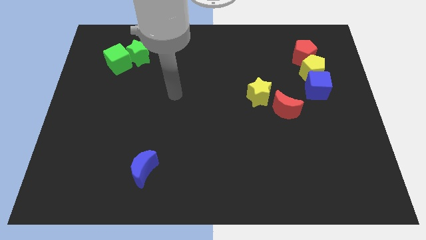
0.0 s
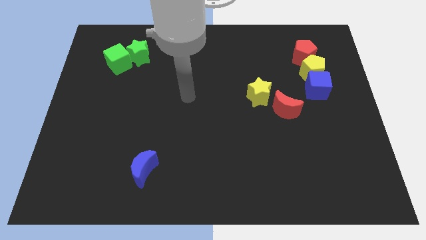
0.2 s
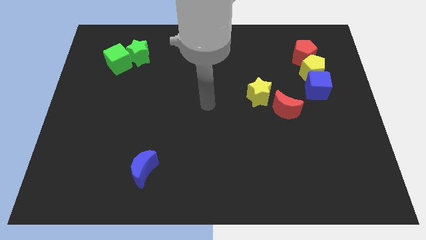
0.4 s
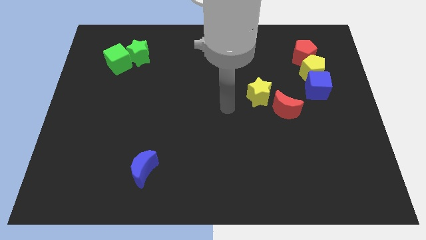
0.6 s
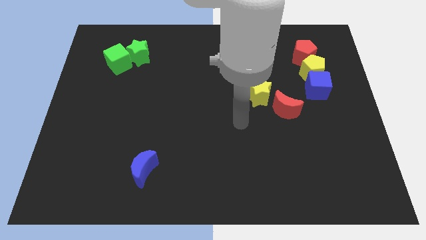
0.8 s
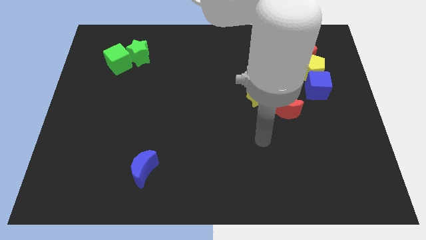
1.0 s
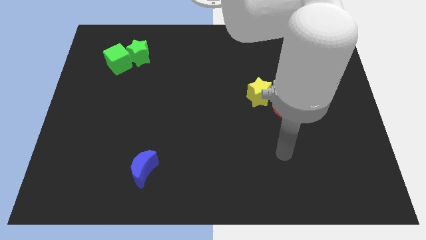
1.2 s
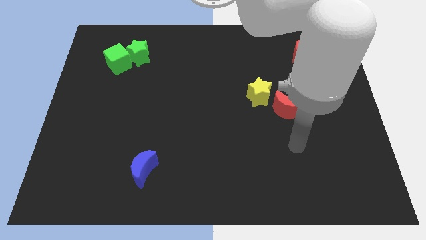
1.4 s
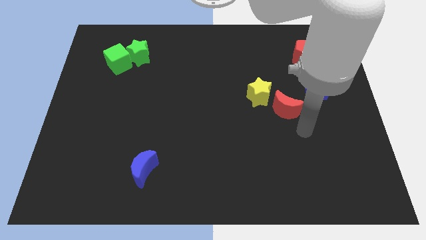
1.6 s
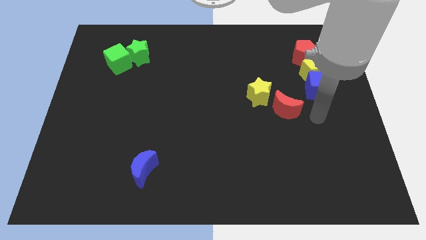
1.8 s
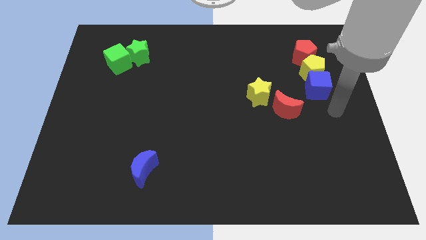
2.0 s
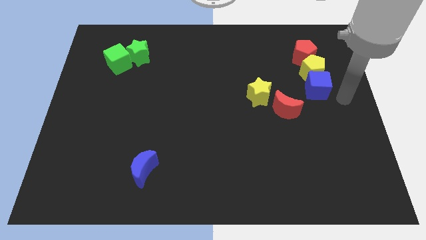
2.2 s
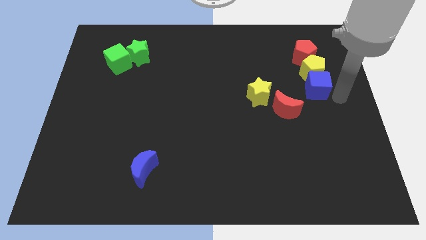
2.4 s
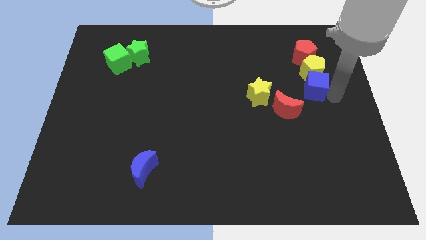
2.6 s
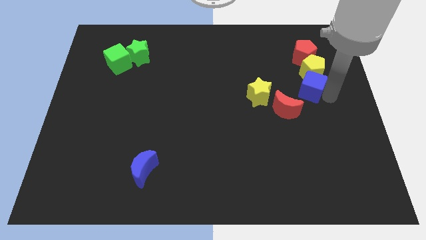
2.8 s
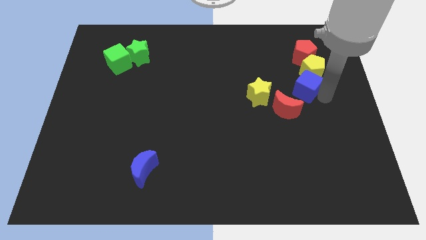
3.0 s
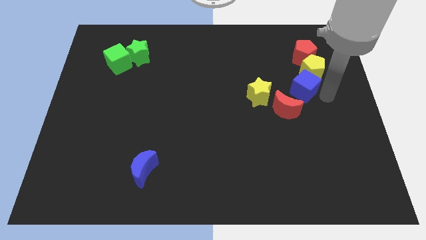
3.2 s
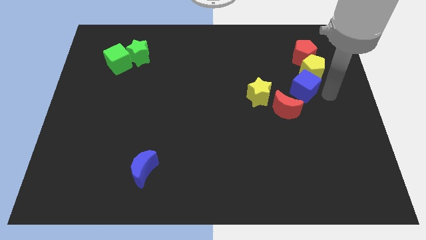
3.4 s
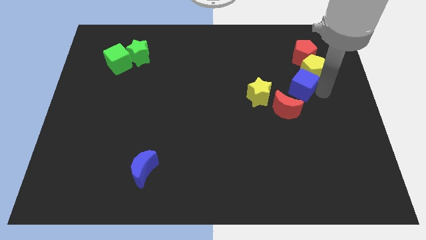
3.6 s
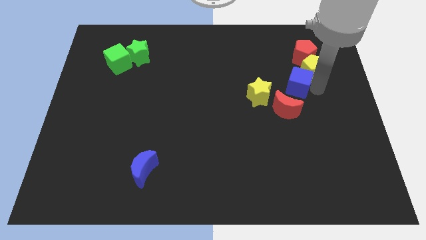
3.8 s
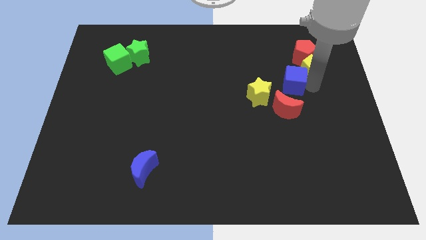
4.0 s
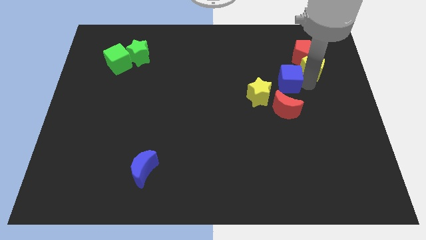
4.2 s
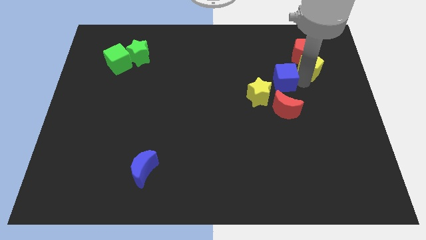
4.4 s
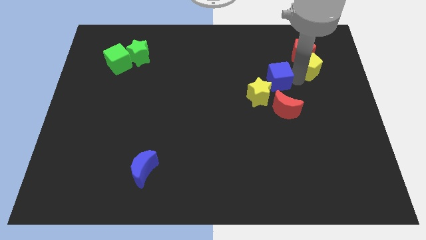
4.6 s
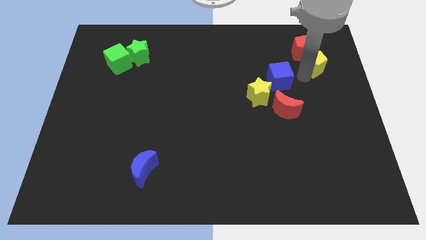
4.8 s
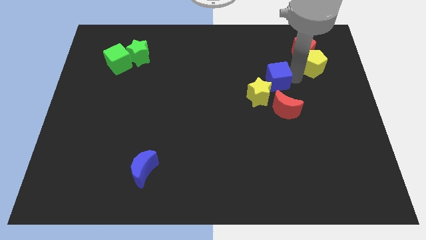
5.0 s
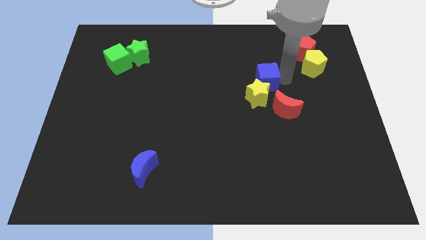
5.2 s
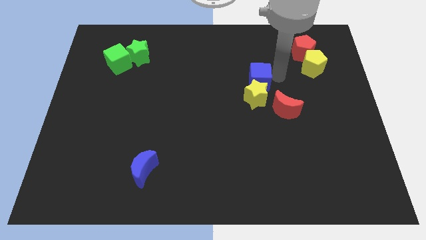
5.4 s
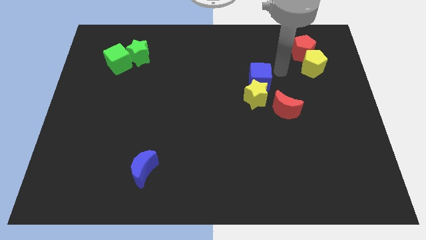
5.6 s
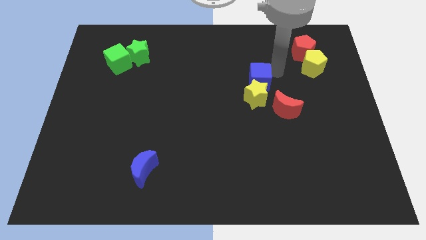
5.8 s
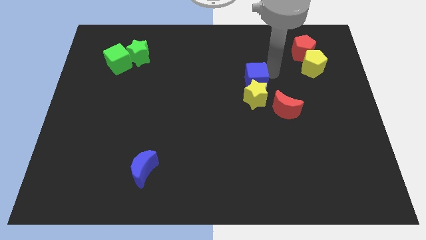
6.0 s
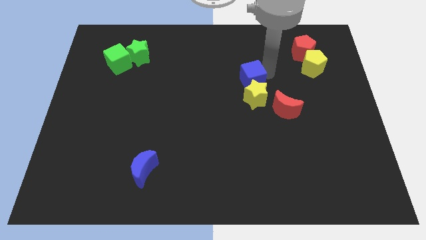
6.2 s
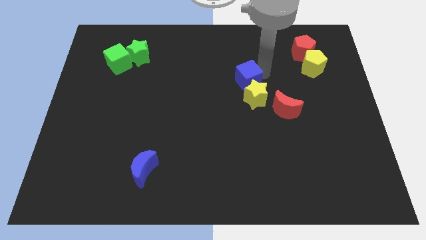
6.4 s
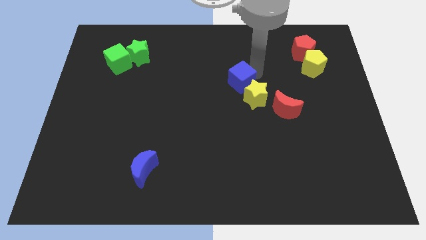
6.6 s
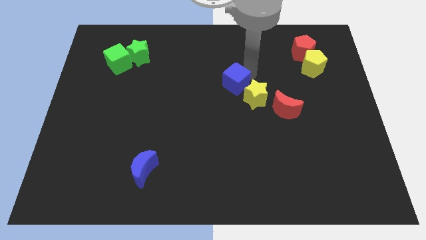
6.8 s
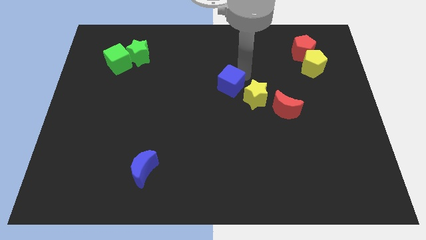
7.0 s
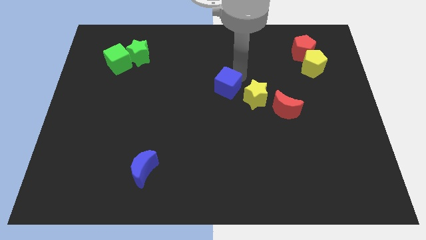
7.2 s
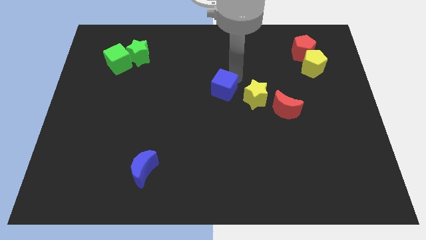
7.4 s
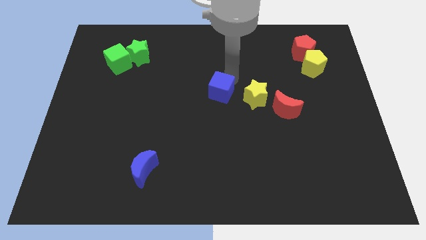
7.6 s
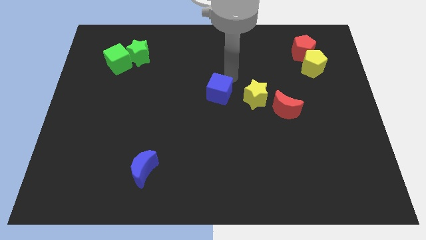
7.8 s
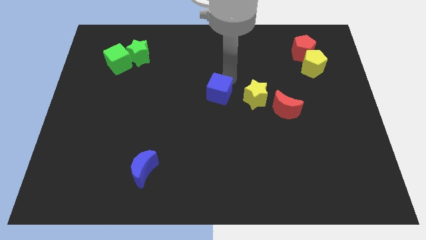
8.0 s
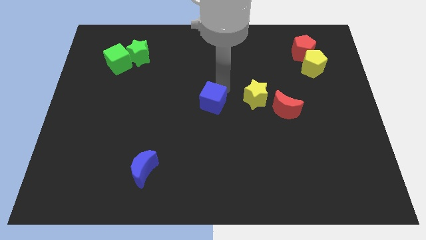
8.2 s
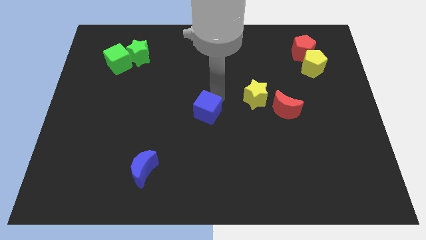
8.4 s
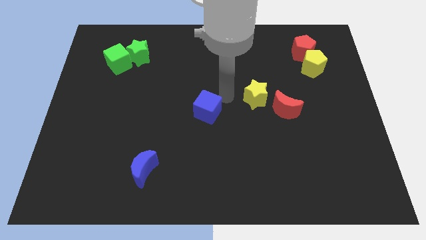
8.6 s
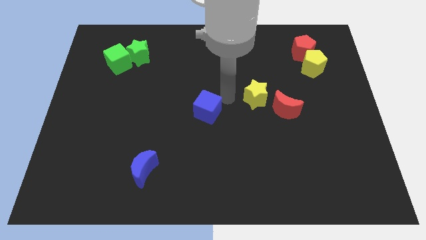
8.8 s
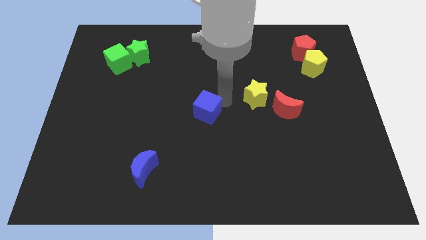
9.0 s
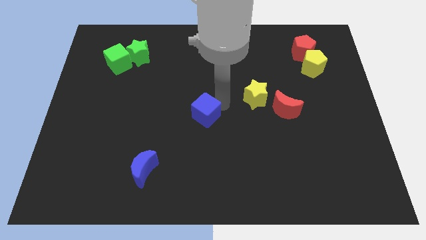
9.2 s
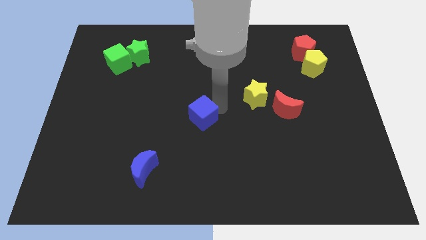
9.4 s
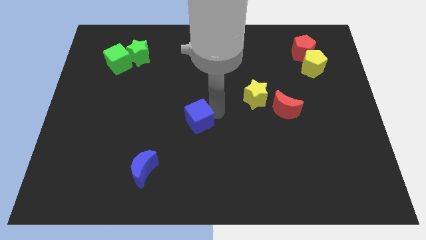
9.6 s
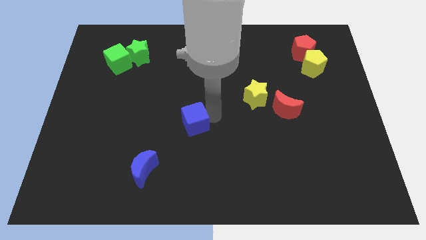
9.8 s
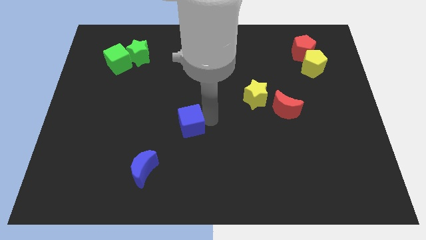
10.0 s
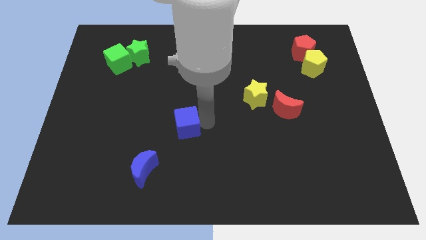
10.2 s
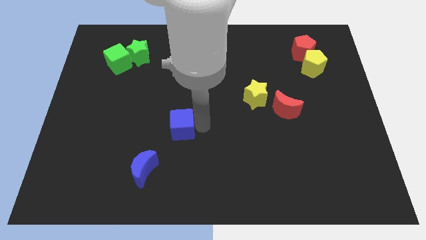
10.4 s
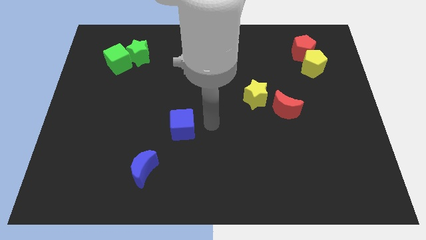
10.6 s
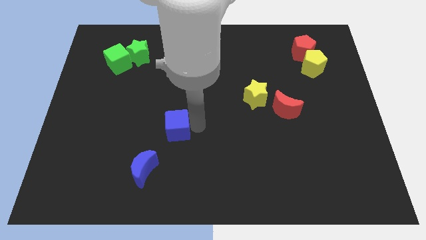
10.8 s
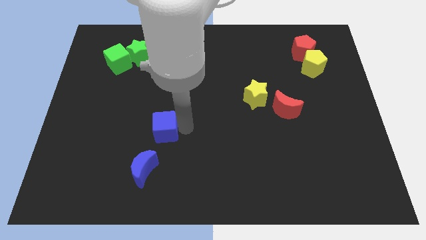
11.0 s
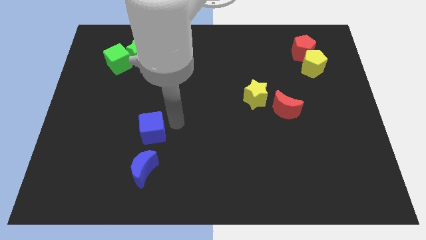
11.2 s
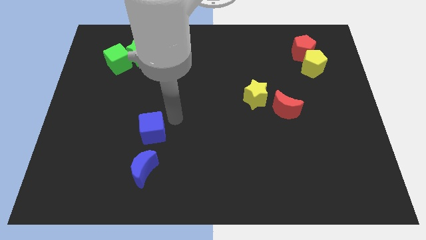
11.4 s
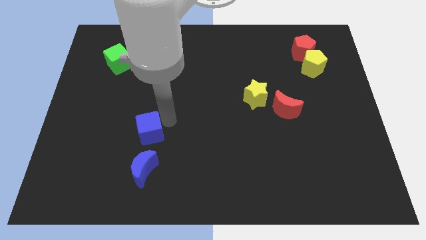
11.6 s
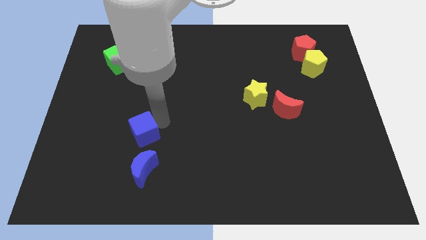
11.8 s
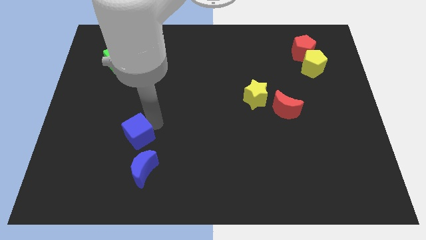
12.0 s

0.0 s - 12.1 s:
push the blue cube to the top left side of the blue moon

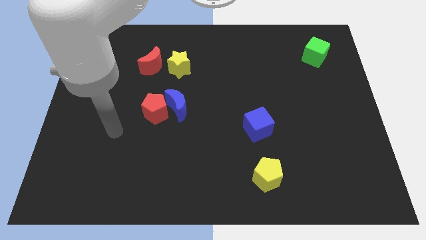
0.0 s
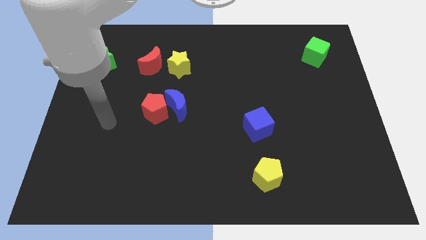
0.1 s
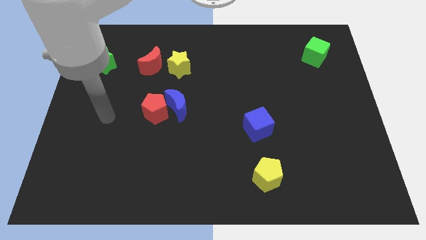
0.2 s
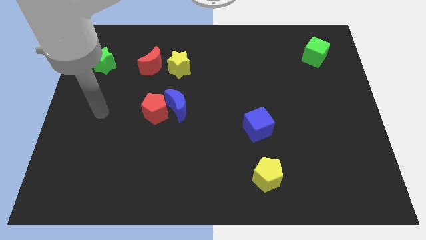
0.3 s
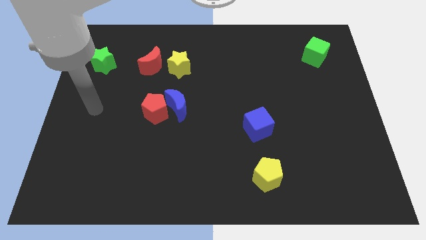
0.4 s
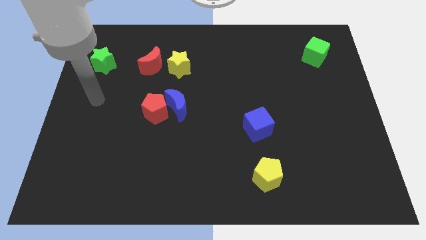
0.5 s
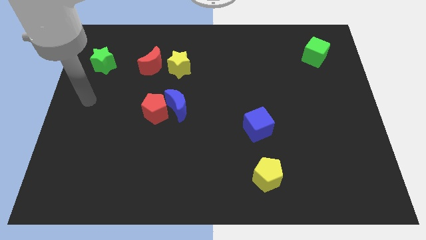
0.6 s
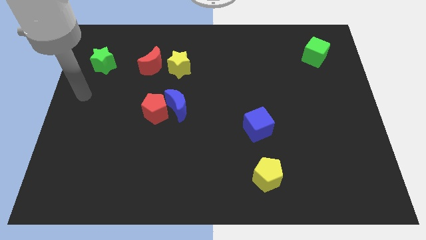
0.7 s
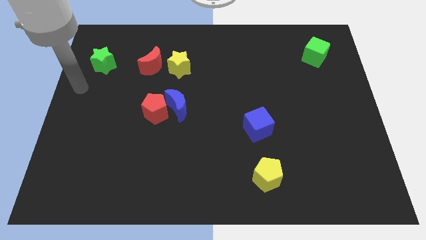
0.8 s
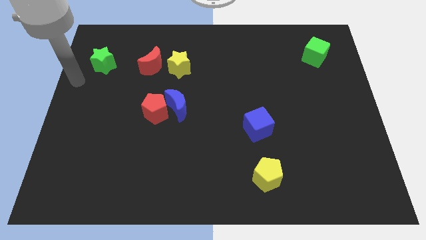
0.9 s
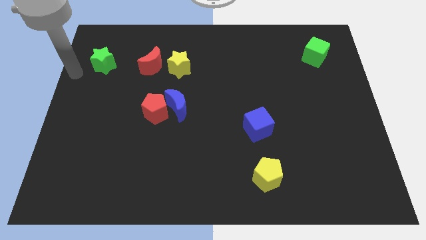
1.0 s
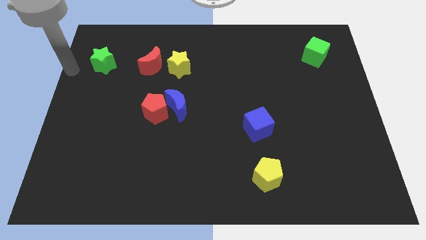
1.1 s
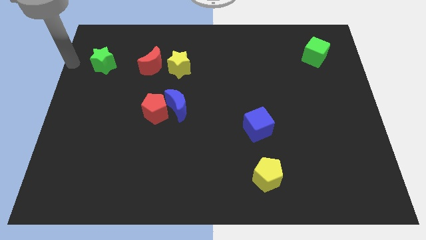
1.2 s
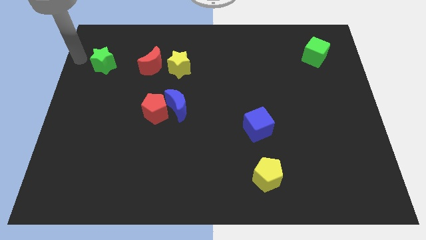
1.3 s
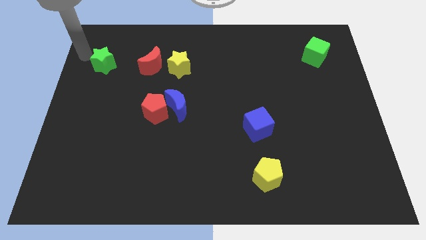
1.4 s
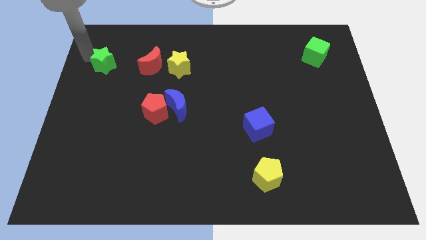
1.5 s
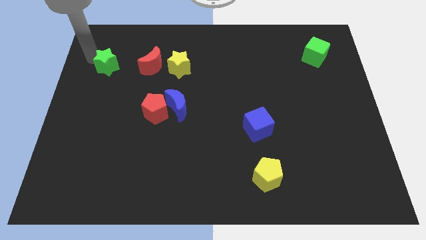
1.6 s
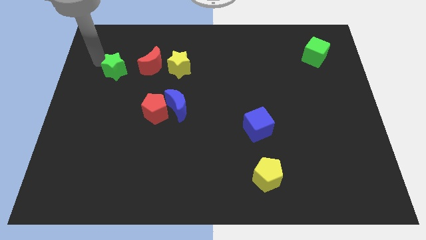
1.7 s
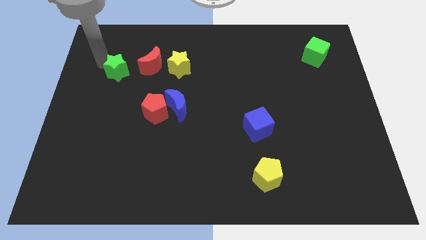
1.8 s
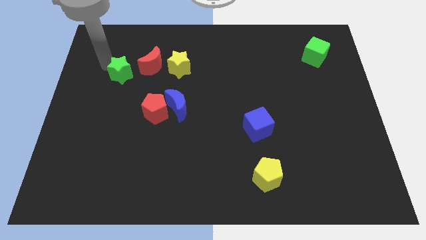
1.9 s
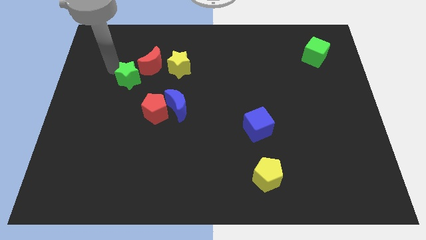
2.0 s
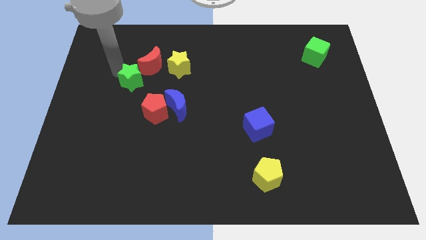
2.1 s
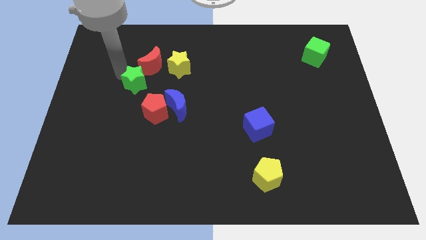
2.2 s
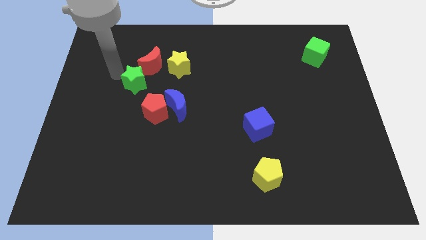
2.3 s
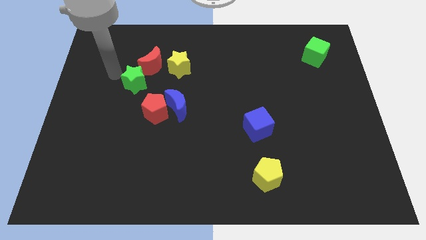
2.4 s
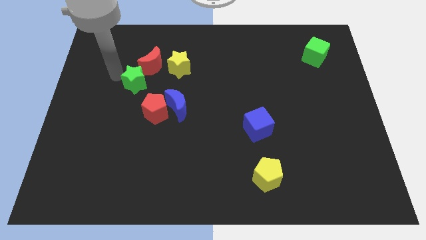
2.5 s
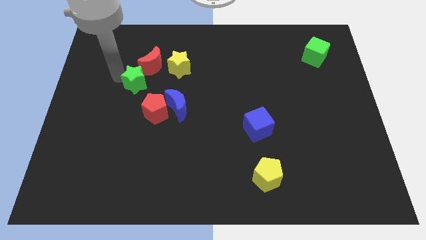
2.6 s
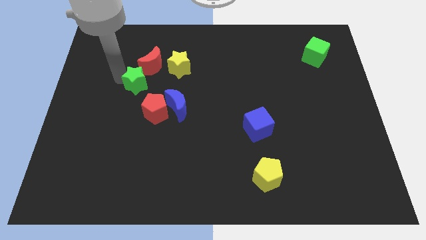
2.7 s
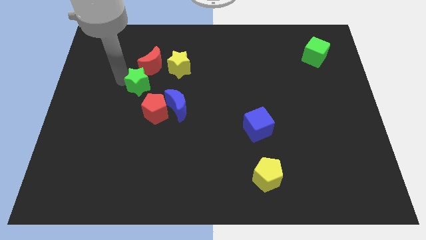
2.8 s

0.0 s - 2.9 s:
push the green star to the top left of the blue moon
